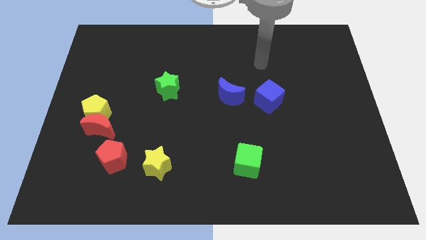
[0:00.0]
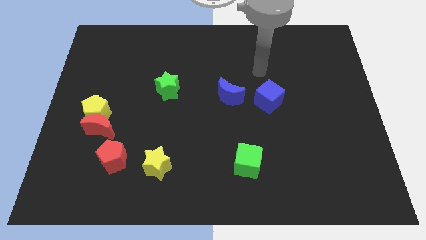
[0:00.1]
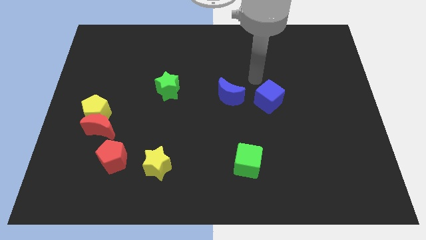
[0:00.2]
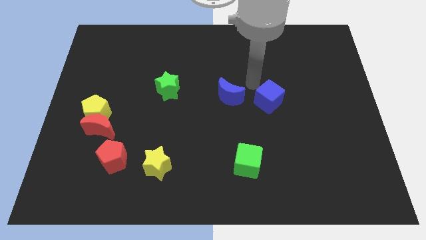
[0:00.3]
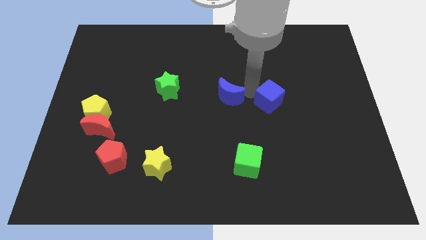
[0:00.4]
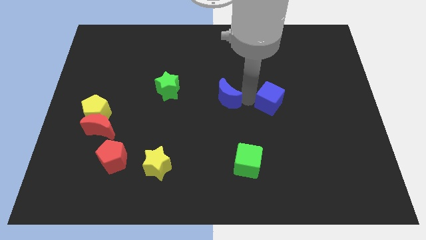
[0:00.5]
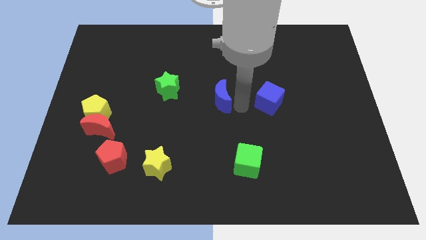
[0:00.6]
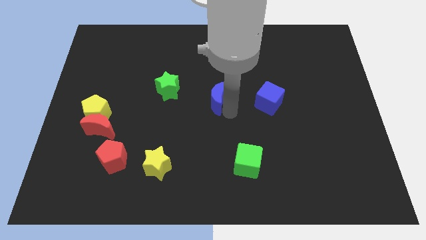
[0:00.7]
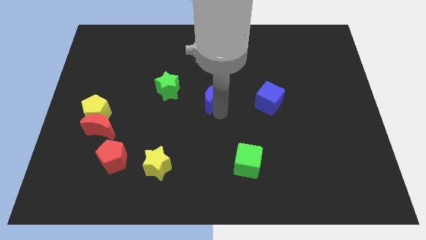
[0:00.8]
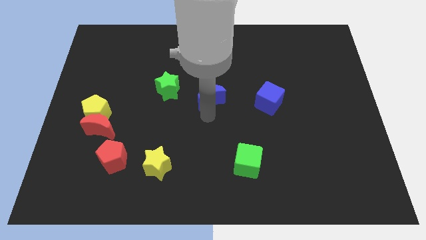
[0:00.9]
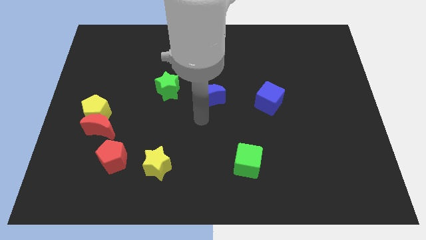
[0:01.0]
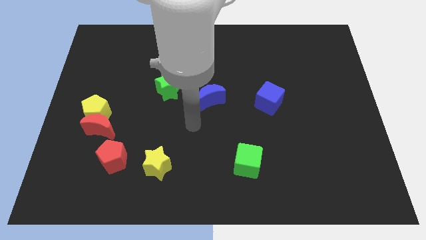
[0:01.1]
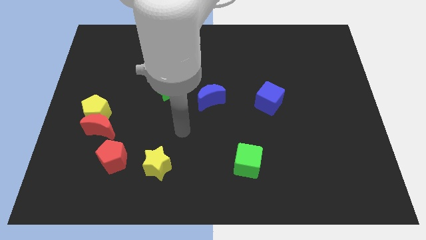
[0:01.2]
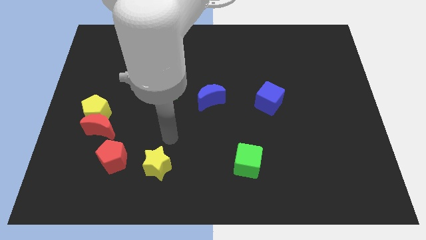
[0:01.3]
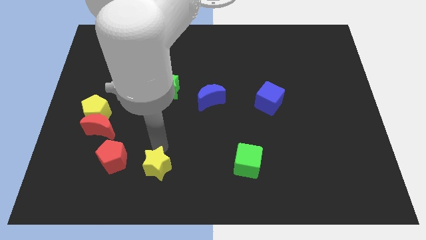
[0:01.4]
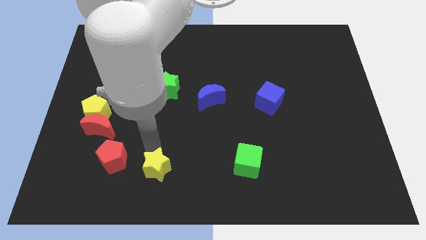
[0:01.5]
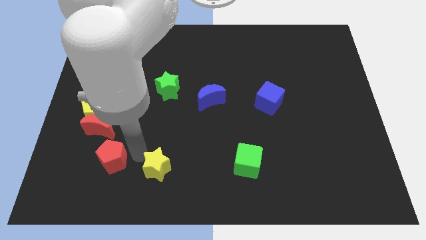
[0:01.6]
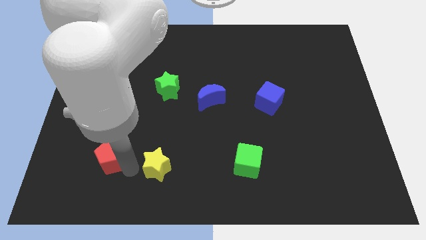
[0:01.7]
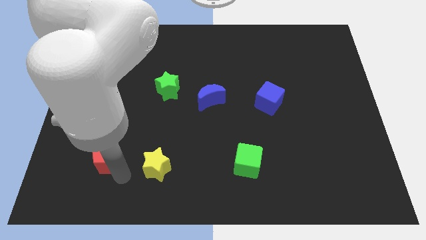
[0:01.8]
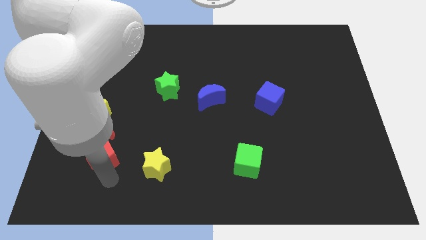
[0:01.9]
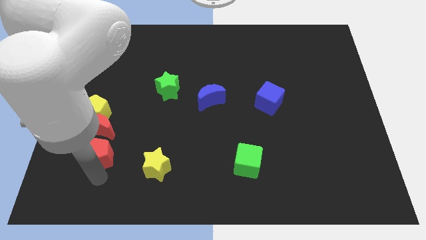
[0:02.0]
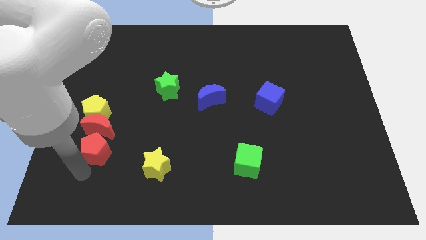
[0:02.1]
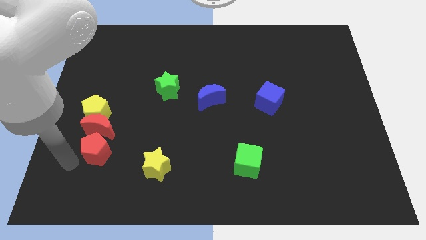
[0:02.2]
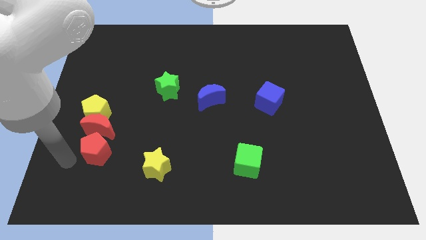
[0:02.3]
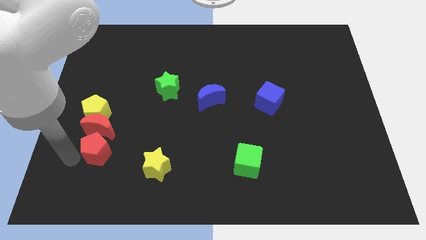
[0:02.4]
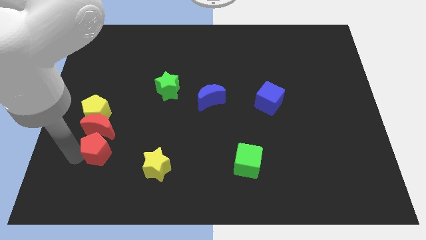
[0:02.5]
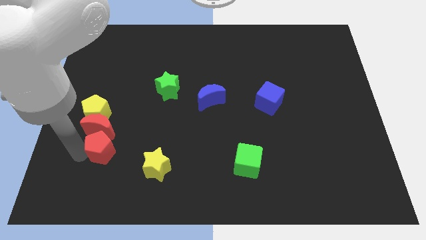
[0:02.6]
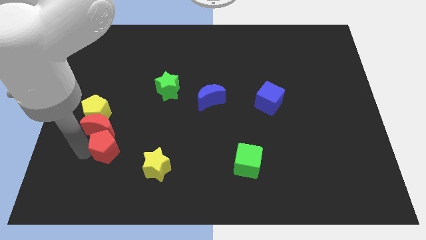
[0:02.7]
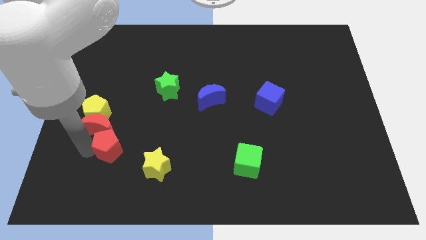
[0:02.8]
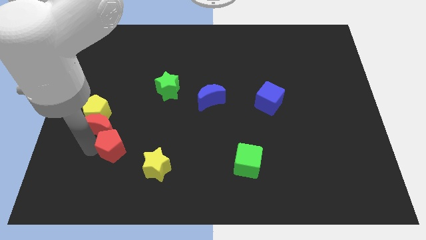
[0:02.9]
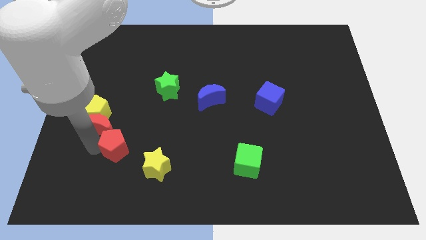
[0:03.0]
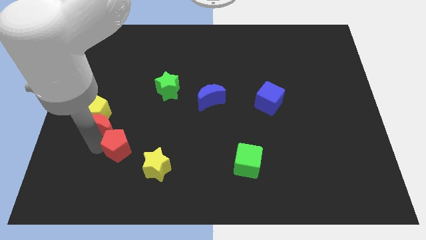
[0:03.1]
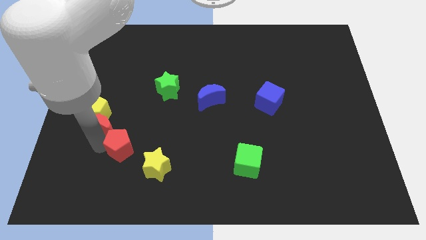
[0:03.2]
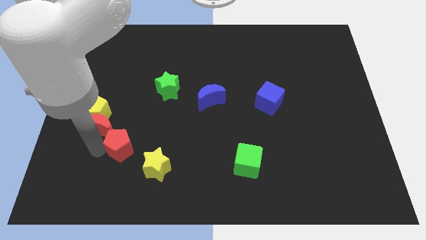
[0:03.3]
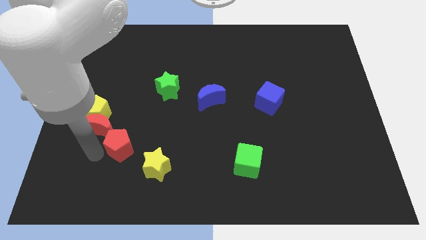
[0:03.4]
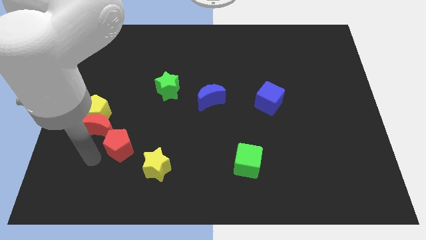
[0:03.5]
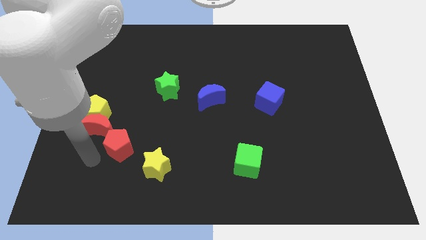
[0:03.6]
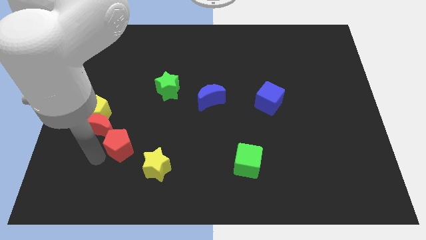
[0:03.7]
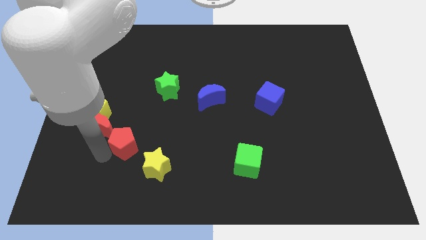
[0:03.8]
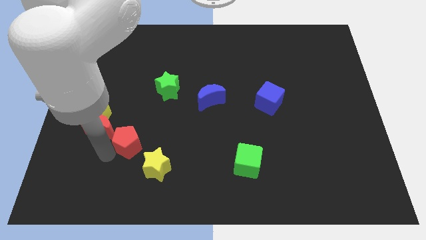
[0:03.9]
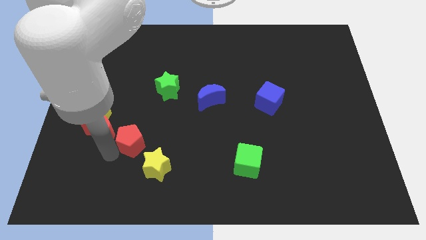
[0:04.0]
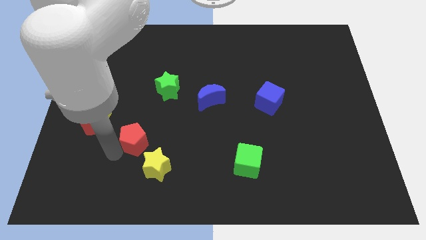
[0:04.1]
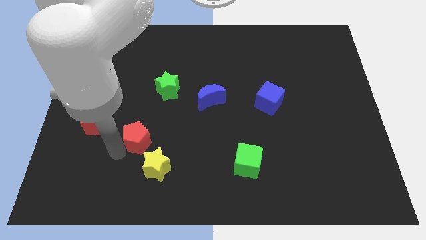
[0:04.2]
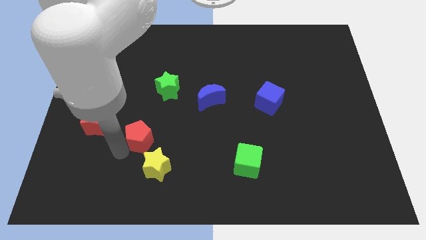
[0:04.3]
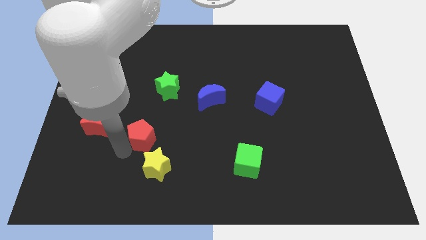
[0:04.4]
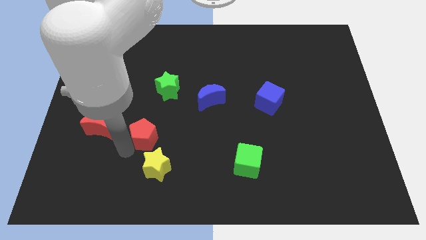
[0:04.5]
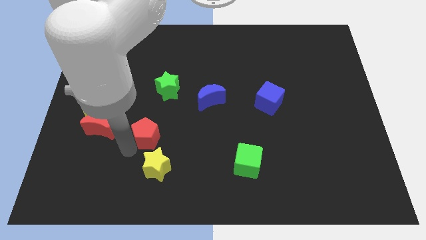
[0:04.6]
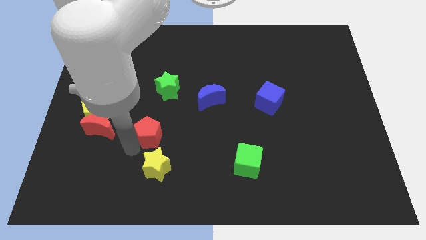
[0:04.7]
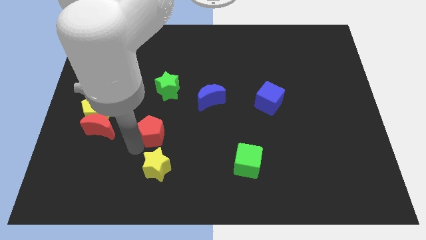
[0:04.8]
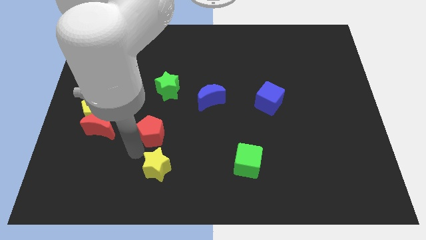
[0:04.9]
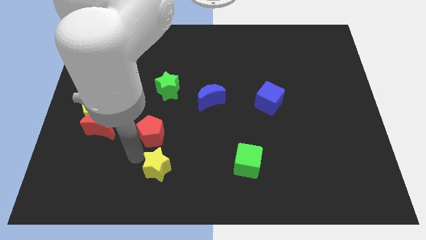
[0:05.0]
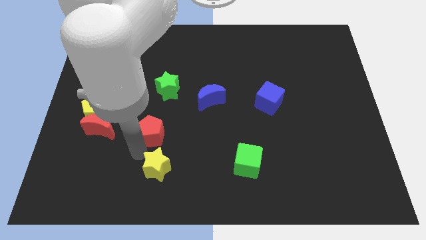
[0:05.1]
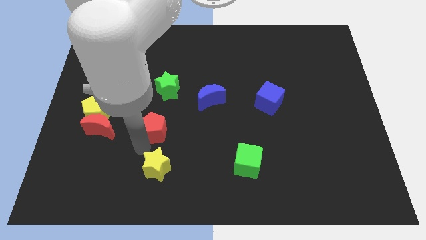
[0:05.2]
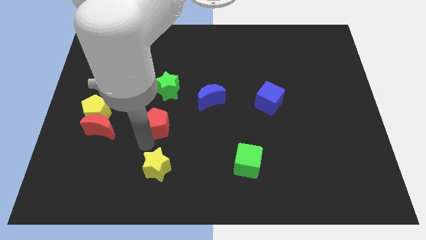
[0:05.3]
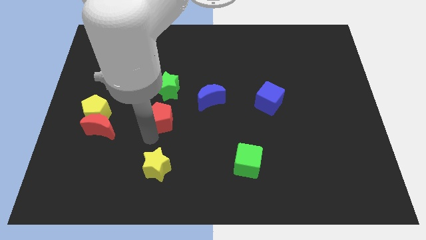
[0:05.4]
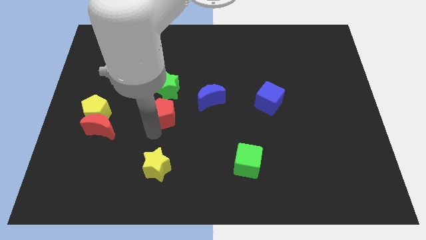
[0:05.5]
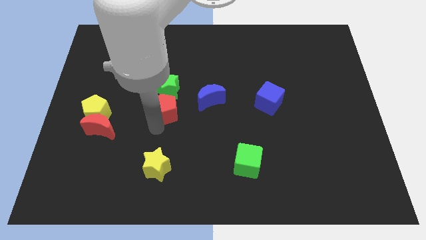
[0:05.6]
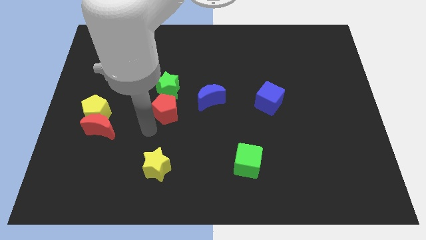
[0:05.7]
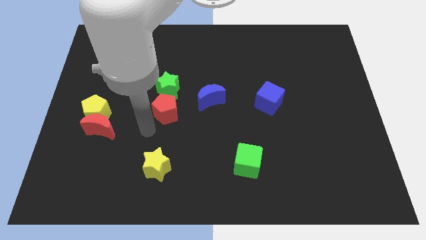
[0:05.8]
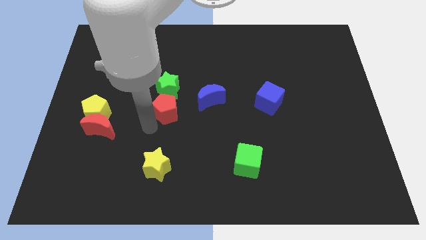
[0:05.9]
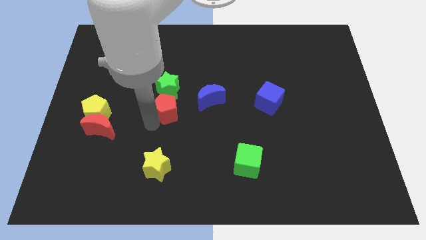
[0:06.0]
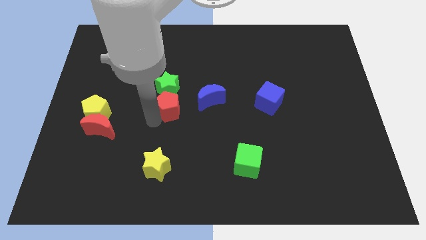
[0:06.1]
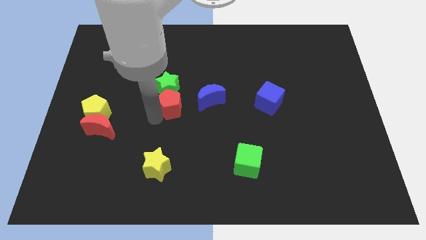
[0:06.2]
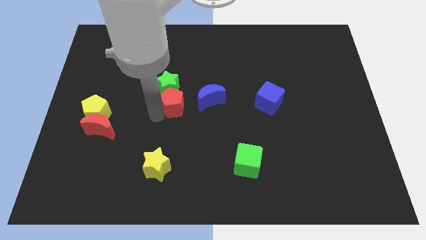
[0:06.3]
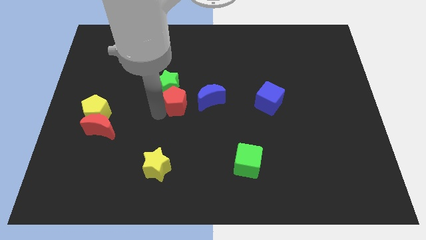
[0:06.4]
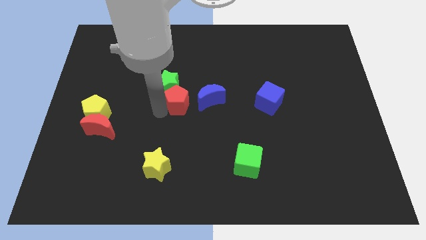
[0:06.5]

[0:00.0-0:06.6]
push the red pentagon up and right

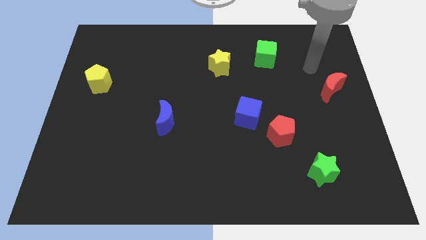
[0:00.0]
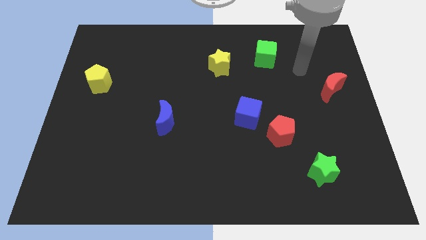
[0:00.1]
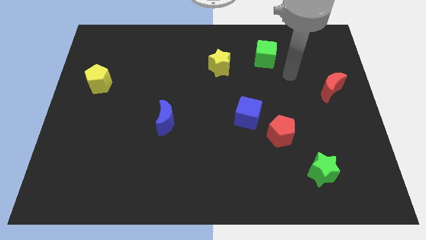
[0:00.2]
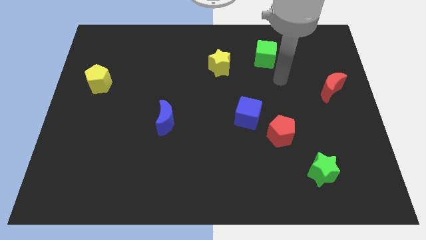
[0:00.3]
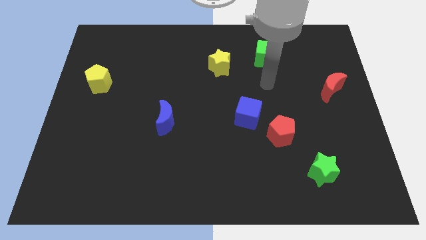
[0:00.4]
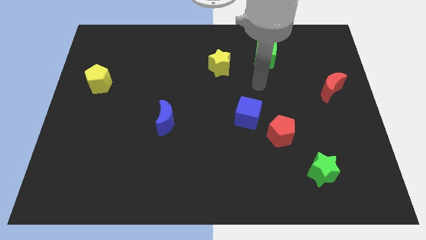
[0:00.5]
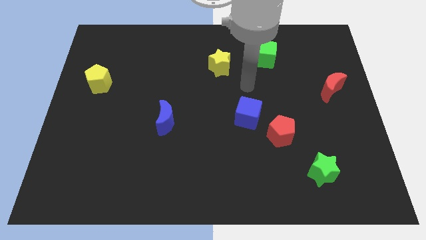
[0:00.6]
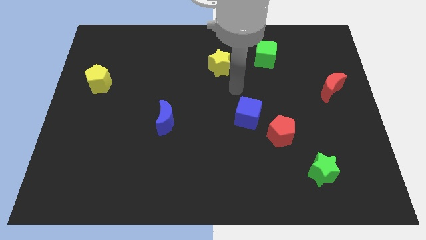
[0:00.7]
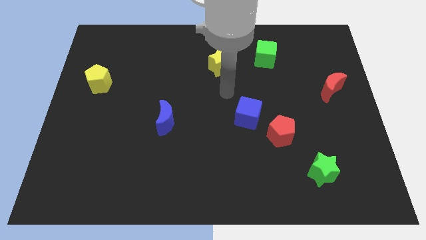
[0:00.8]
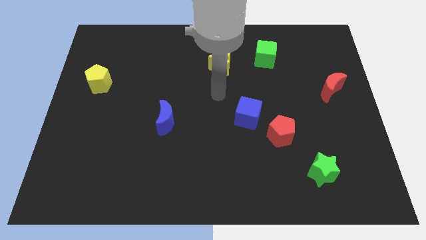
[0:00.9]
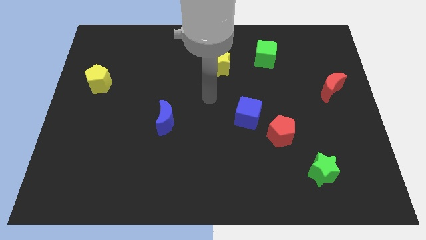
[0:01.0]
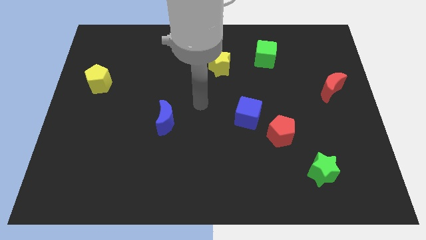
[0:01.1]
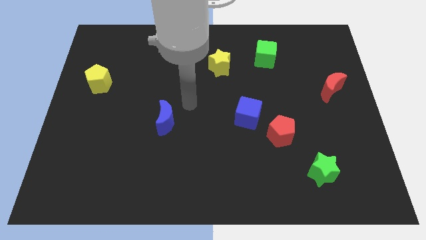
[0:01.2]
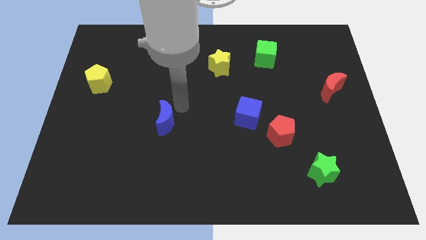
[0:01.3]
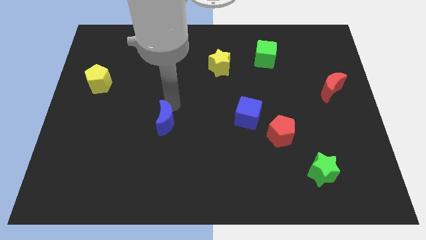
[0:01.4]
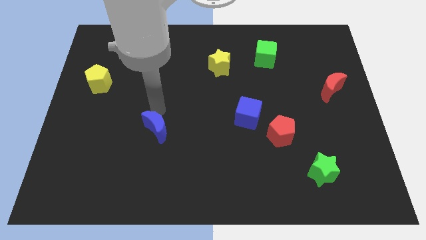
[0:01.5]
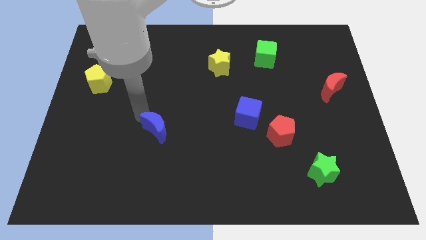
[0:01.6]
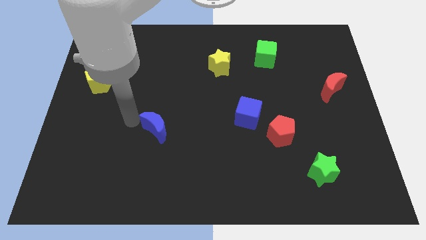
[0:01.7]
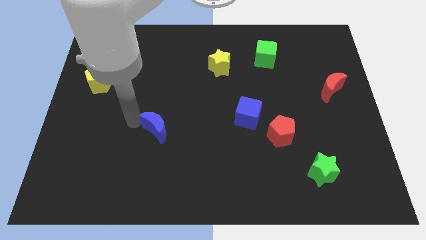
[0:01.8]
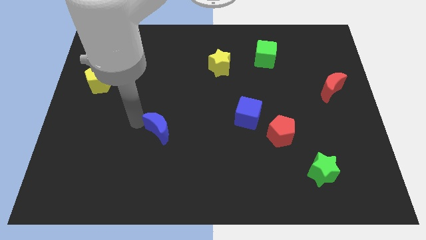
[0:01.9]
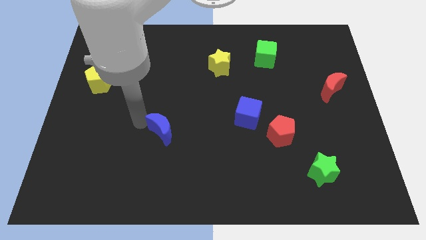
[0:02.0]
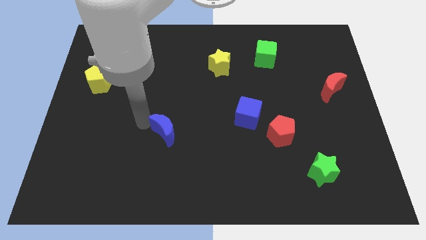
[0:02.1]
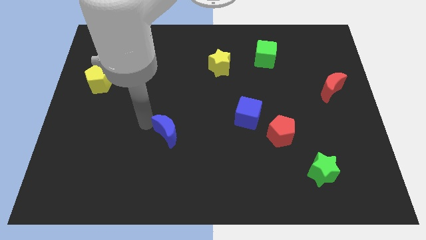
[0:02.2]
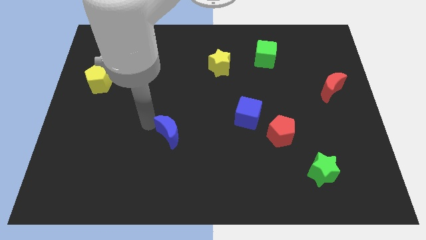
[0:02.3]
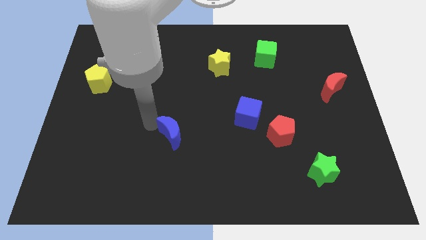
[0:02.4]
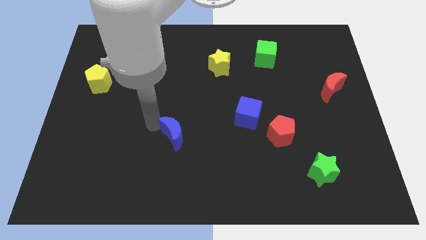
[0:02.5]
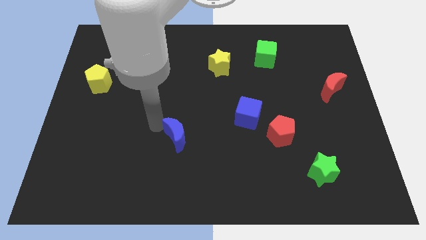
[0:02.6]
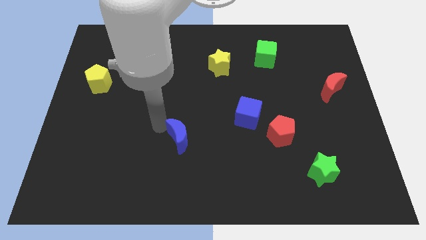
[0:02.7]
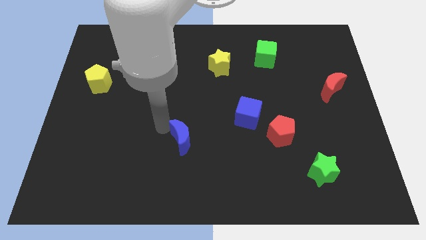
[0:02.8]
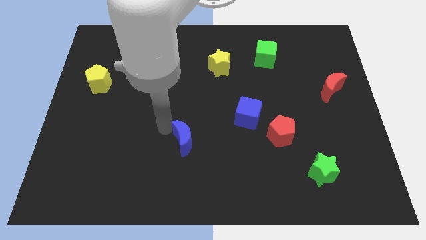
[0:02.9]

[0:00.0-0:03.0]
push the blue moon downwards and then right a little bit
